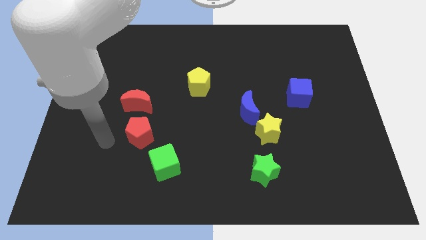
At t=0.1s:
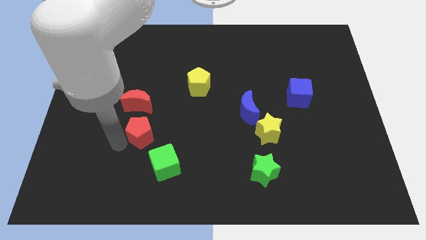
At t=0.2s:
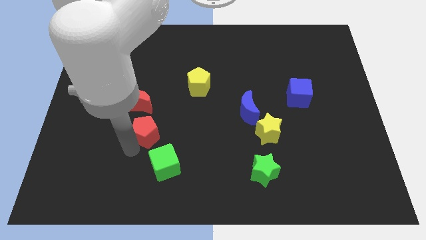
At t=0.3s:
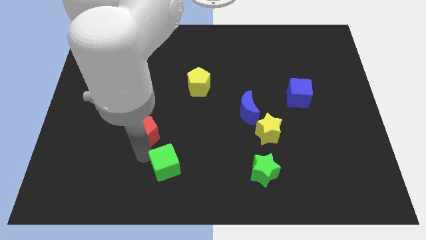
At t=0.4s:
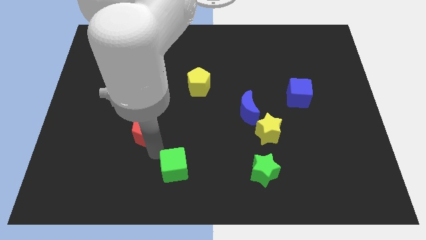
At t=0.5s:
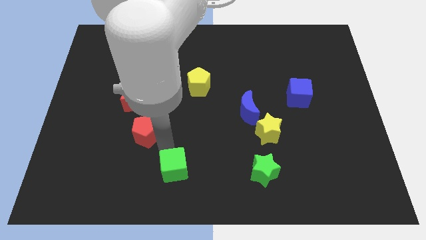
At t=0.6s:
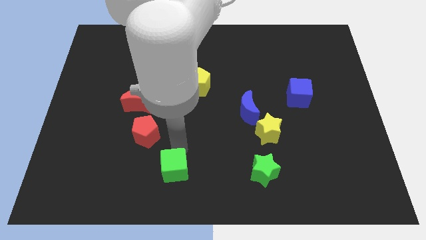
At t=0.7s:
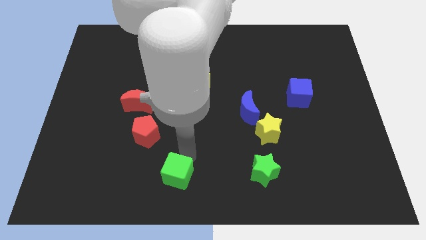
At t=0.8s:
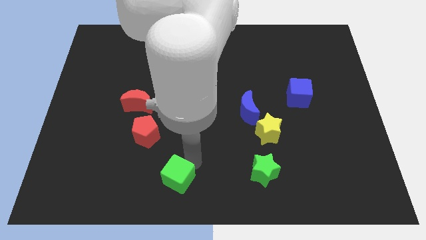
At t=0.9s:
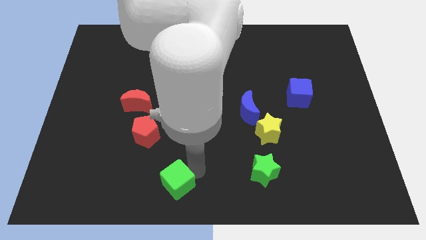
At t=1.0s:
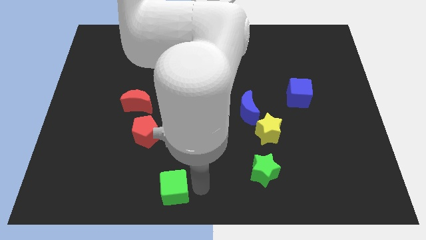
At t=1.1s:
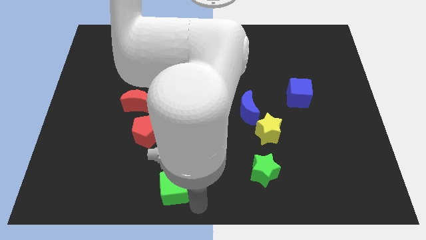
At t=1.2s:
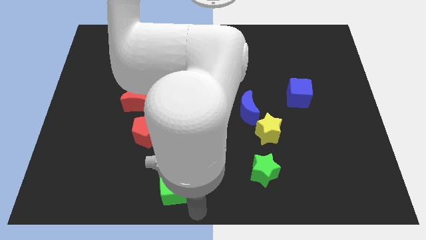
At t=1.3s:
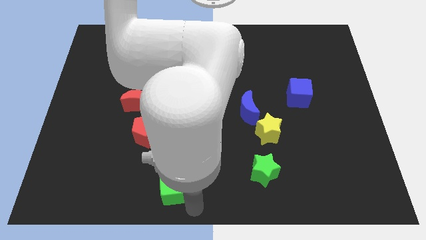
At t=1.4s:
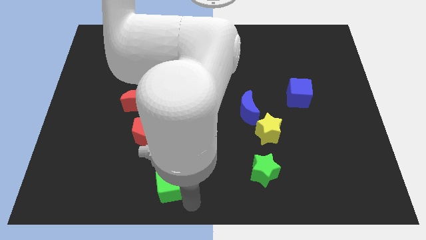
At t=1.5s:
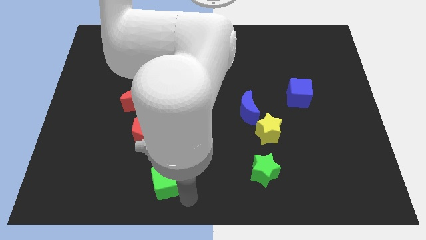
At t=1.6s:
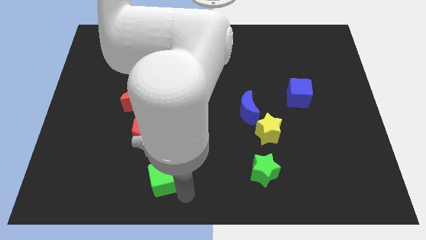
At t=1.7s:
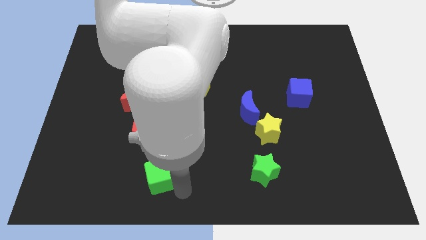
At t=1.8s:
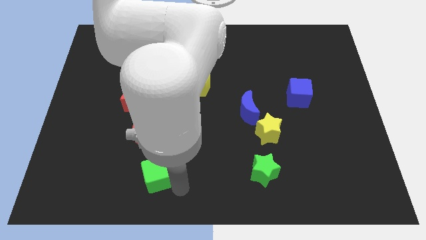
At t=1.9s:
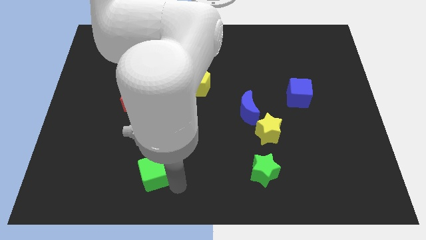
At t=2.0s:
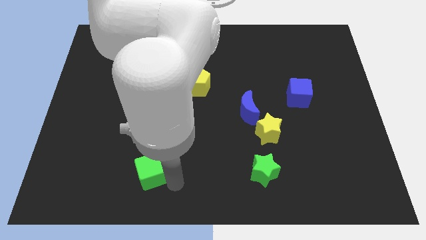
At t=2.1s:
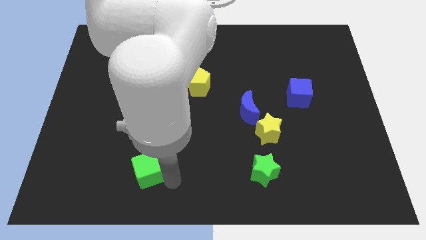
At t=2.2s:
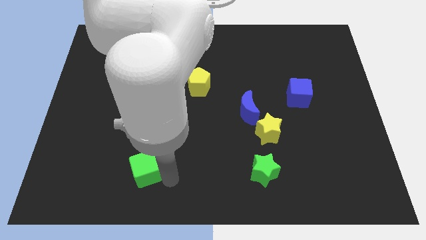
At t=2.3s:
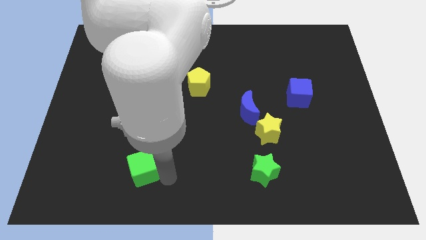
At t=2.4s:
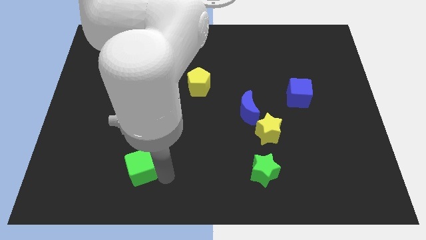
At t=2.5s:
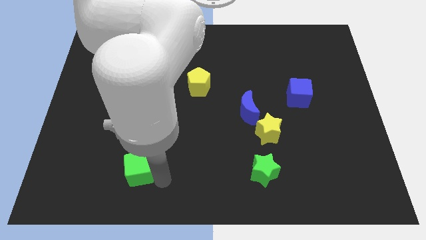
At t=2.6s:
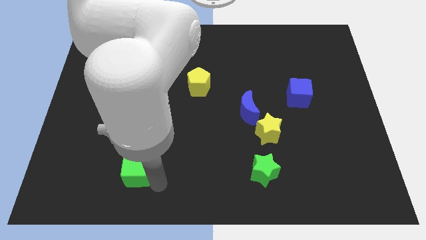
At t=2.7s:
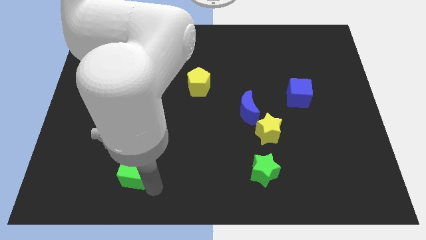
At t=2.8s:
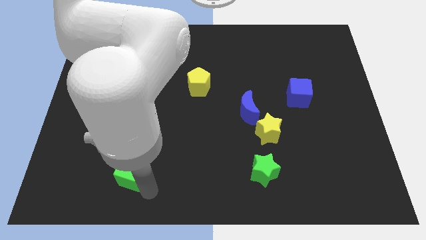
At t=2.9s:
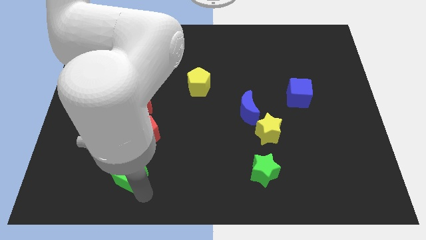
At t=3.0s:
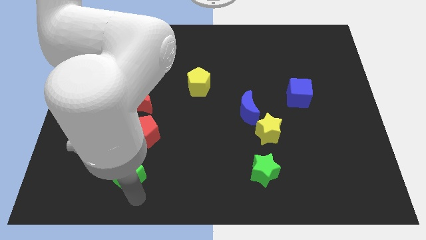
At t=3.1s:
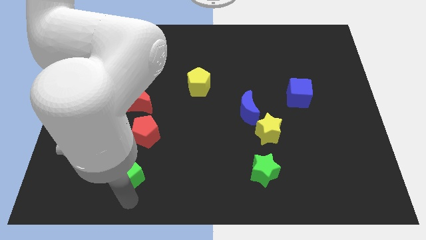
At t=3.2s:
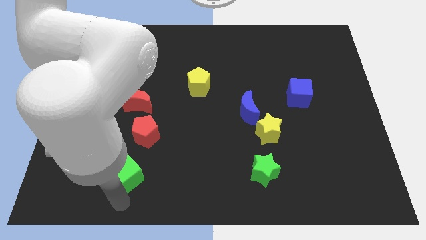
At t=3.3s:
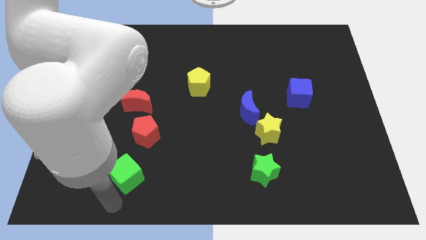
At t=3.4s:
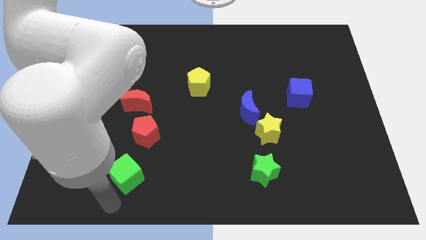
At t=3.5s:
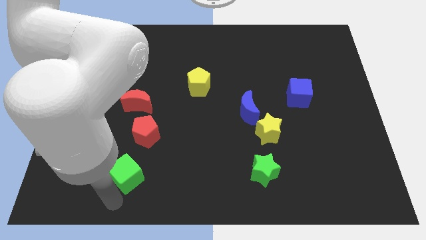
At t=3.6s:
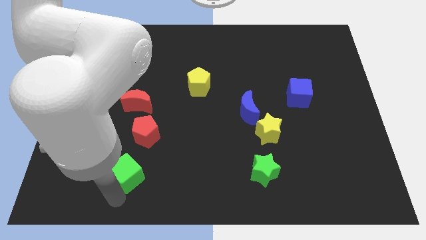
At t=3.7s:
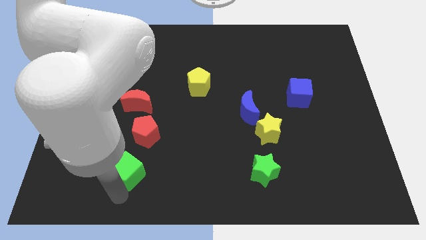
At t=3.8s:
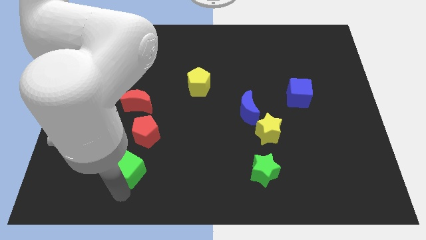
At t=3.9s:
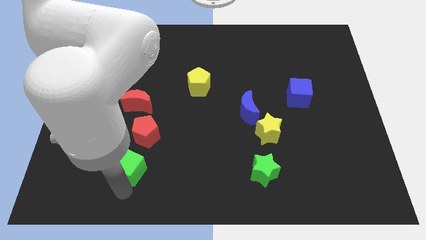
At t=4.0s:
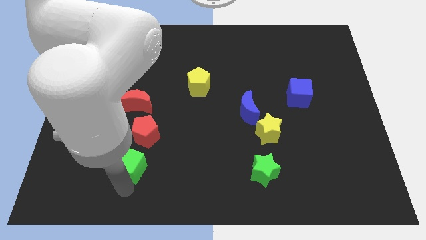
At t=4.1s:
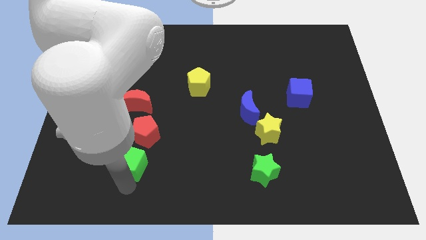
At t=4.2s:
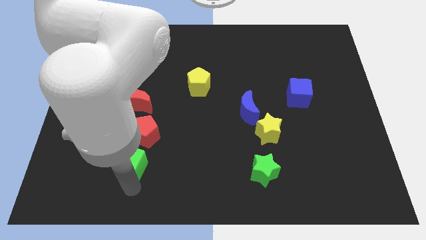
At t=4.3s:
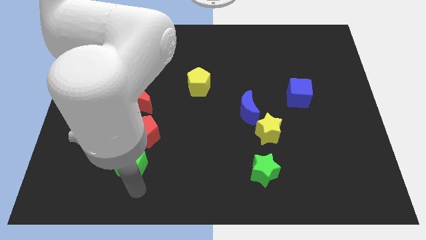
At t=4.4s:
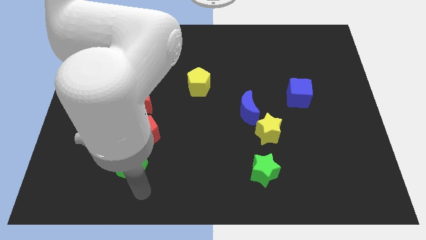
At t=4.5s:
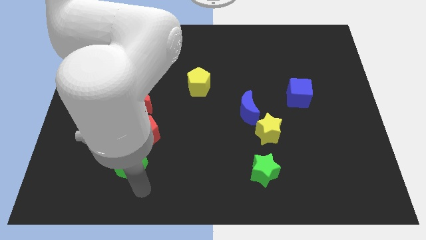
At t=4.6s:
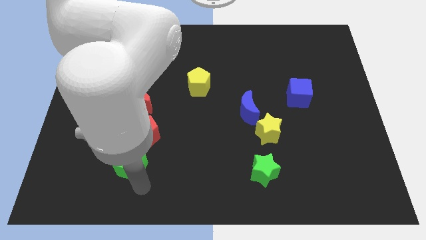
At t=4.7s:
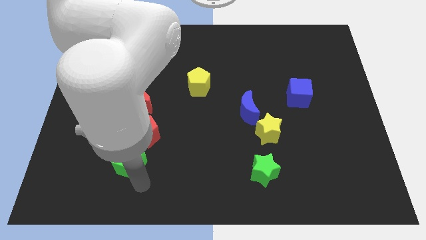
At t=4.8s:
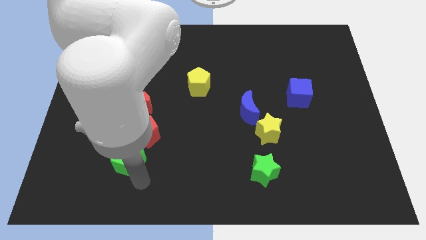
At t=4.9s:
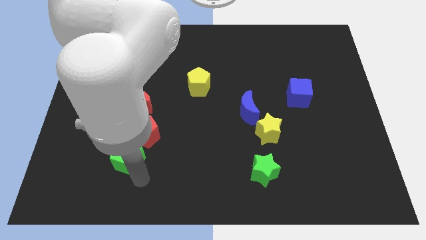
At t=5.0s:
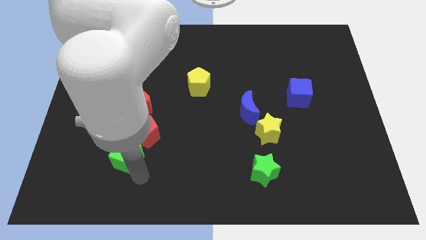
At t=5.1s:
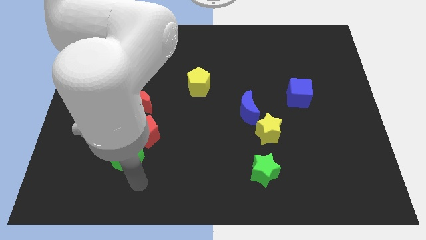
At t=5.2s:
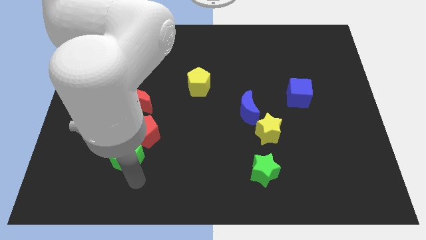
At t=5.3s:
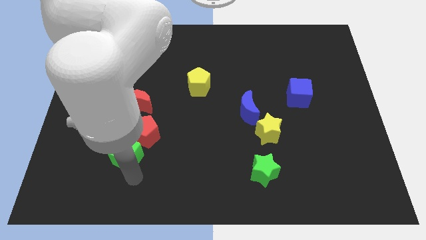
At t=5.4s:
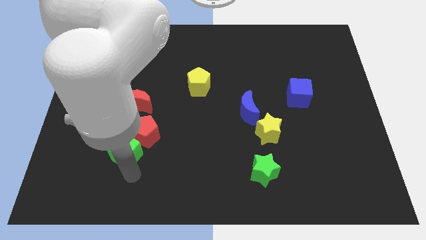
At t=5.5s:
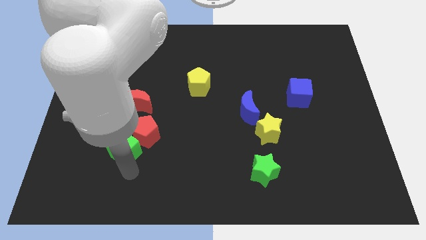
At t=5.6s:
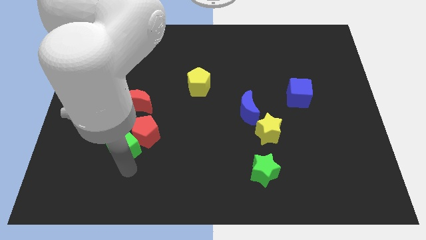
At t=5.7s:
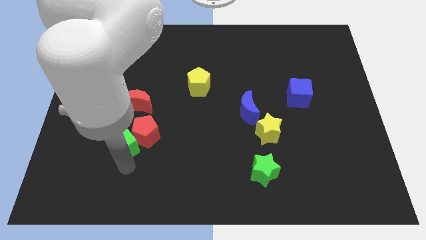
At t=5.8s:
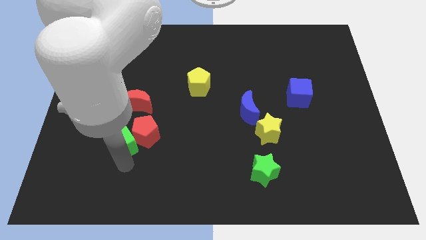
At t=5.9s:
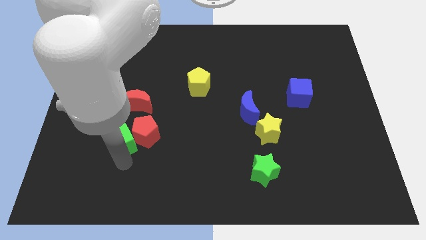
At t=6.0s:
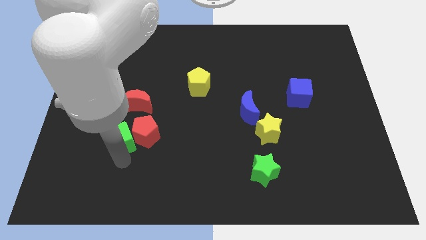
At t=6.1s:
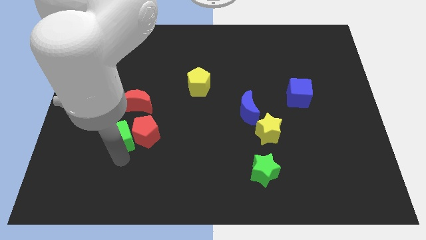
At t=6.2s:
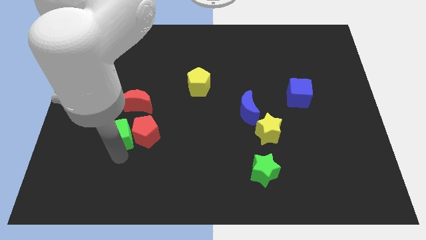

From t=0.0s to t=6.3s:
move the green cube diagonally up and to the left of the red pentagon
